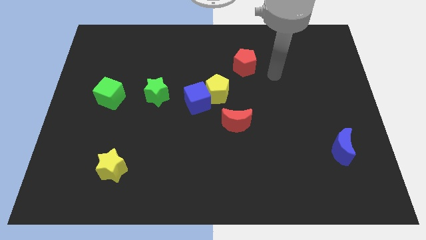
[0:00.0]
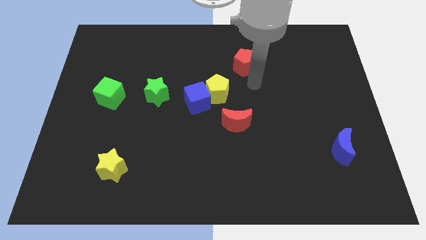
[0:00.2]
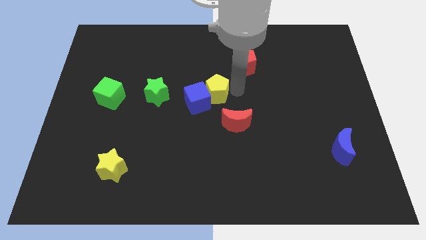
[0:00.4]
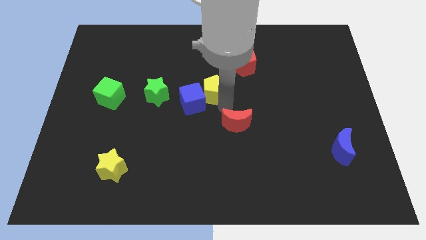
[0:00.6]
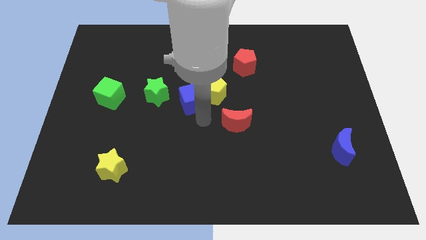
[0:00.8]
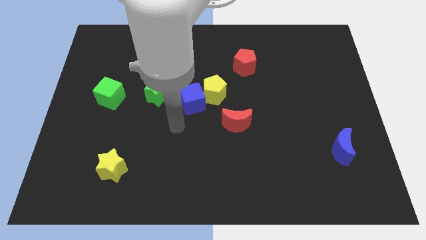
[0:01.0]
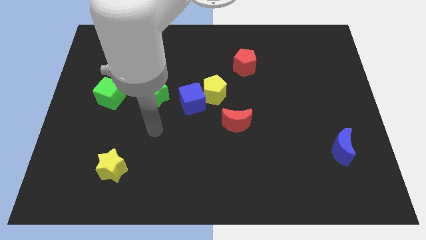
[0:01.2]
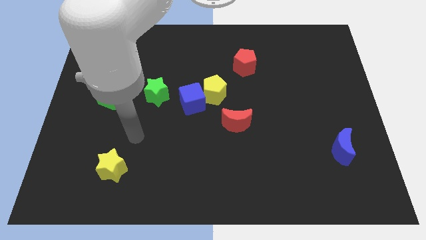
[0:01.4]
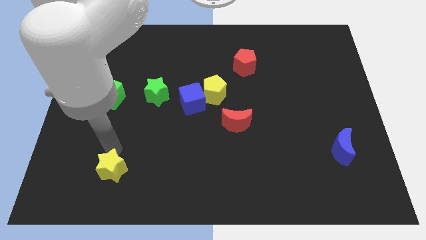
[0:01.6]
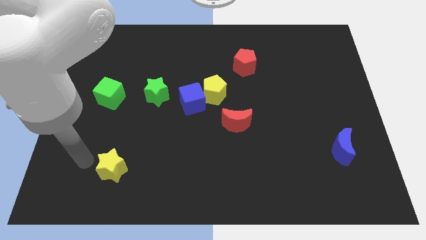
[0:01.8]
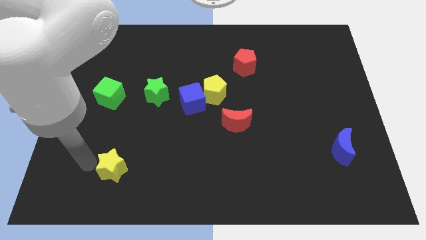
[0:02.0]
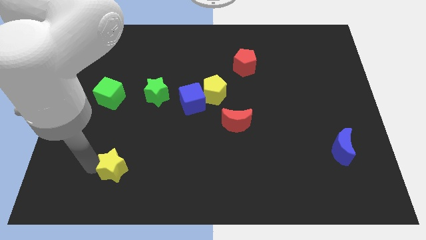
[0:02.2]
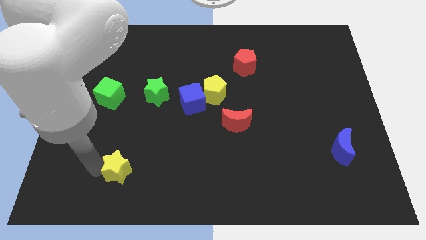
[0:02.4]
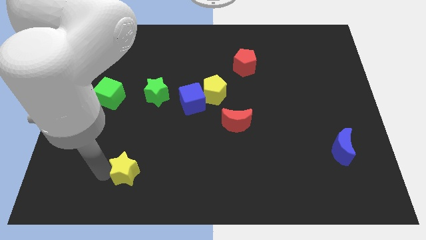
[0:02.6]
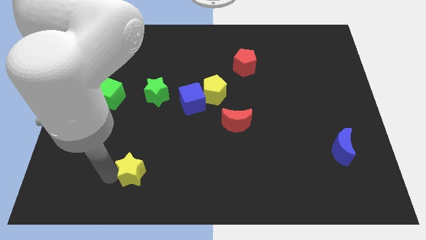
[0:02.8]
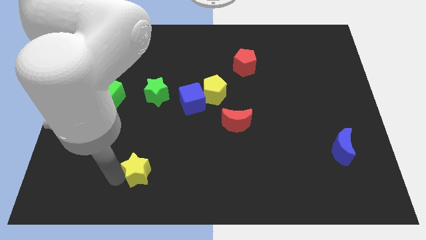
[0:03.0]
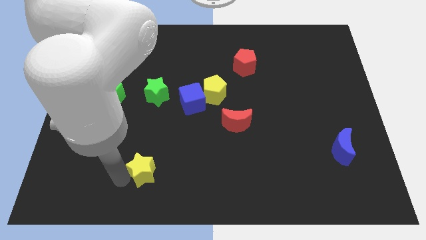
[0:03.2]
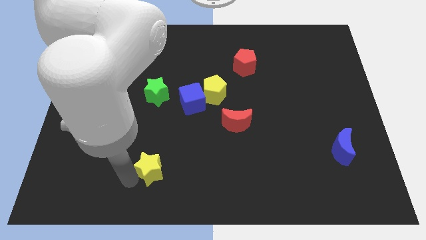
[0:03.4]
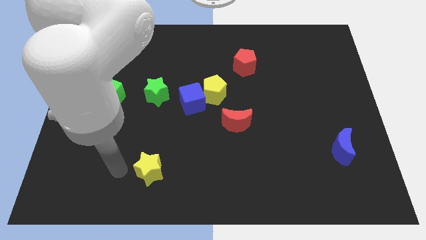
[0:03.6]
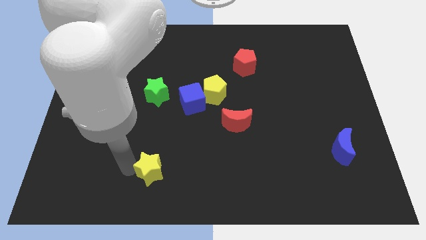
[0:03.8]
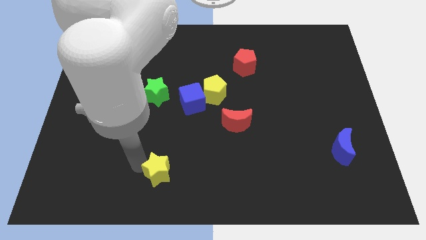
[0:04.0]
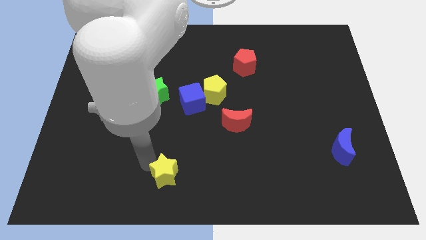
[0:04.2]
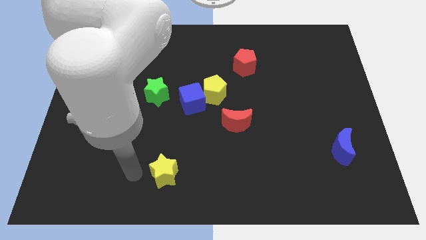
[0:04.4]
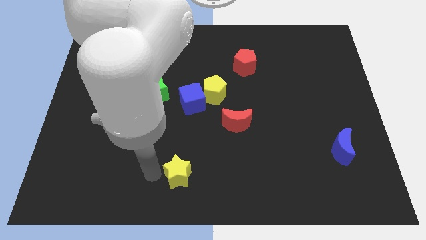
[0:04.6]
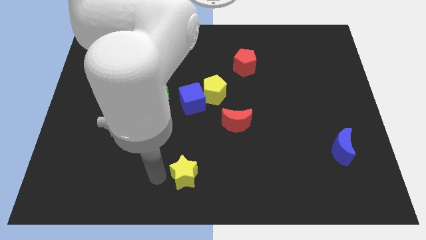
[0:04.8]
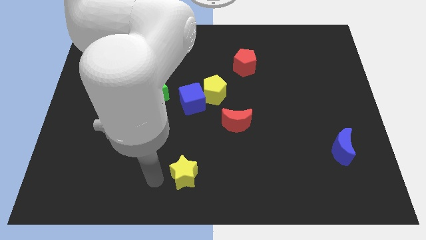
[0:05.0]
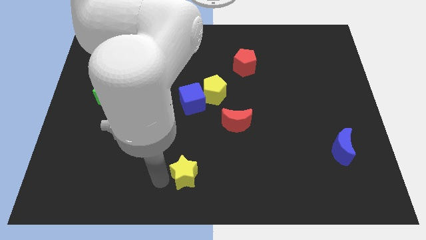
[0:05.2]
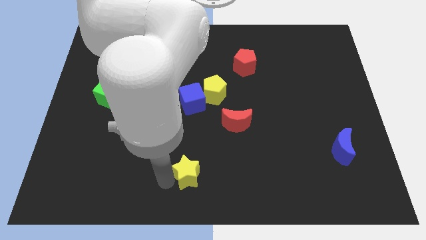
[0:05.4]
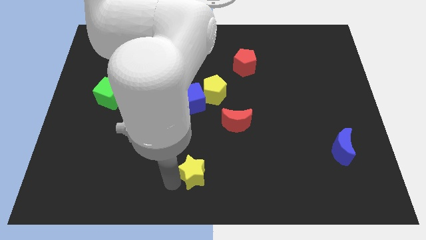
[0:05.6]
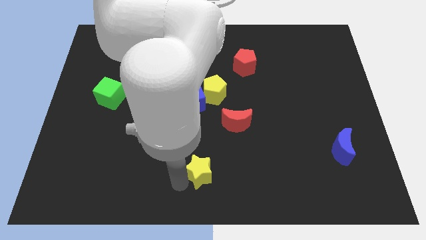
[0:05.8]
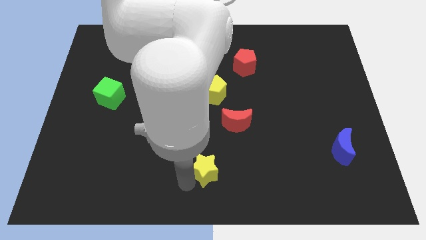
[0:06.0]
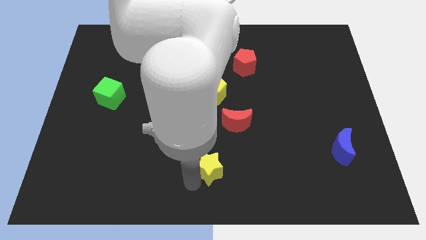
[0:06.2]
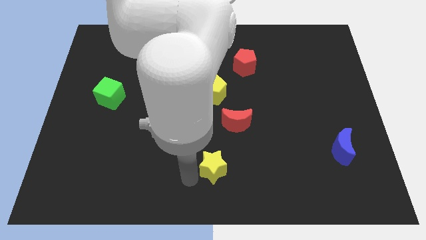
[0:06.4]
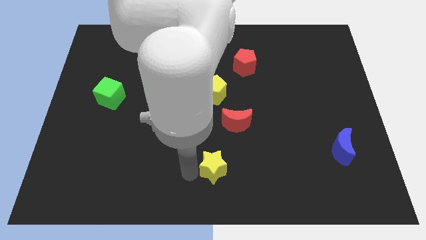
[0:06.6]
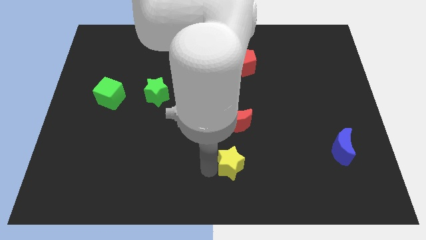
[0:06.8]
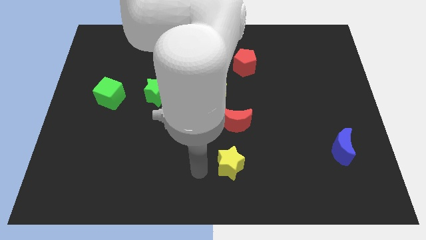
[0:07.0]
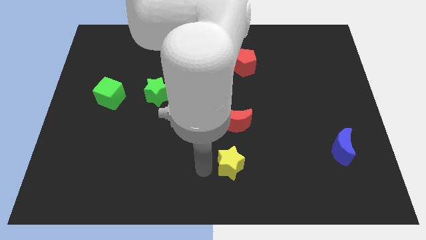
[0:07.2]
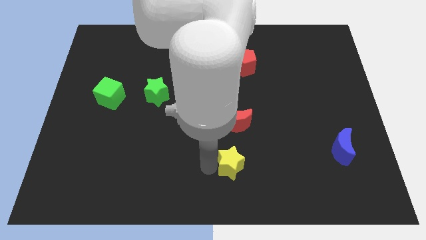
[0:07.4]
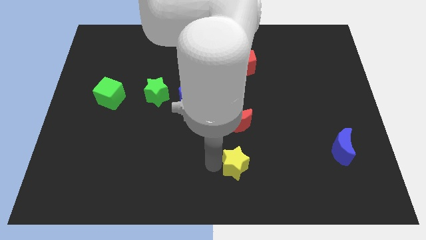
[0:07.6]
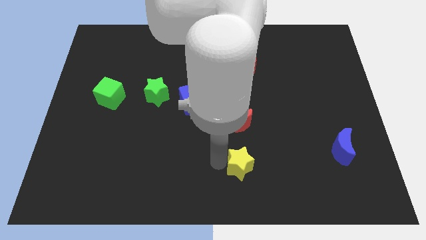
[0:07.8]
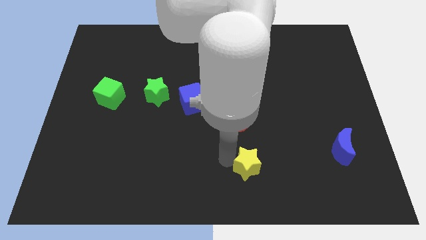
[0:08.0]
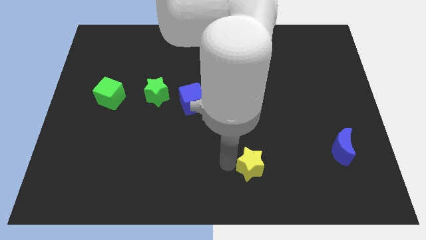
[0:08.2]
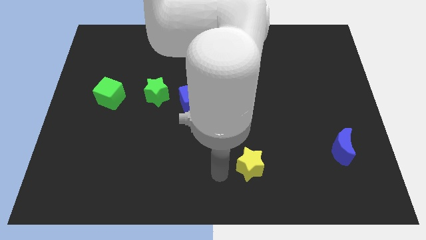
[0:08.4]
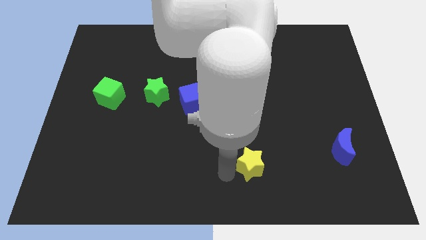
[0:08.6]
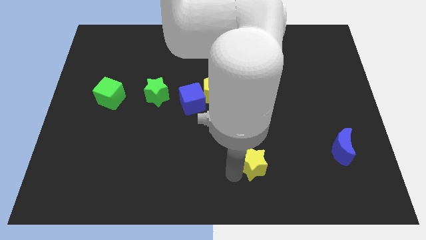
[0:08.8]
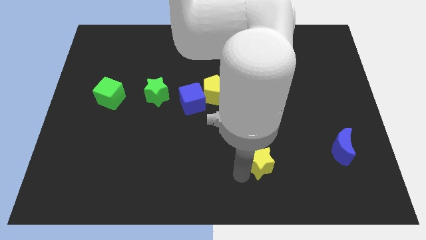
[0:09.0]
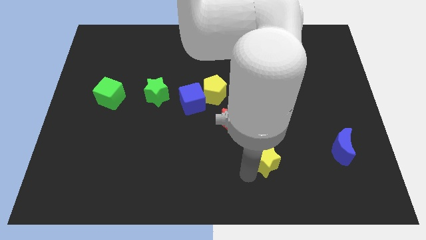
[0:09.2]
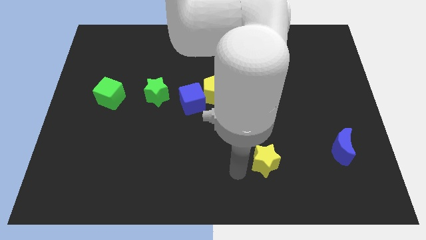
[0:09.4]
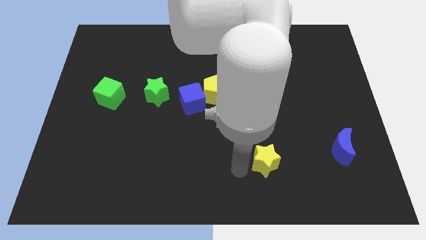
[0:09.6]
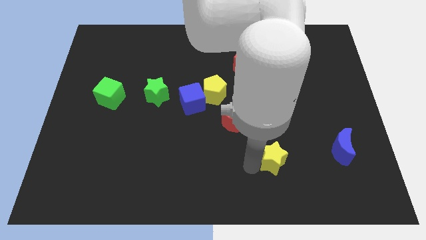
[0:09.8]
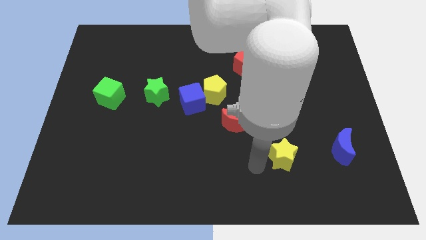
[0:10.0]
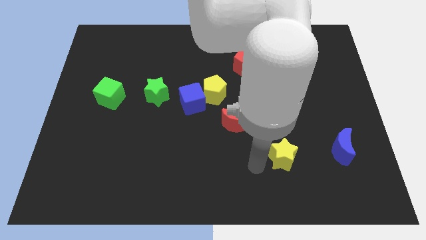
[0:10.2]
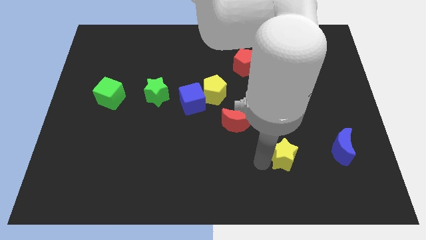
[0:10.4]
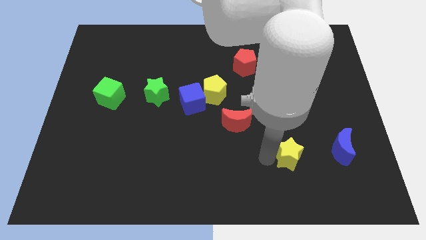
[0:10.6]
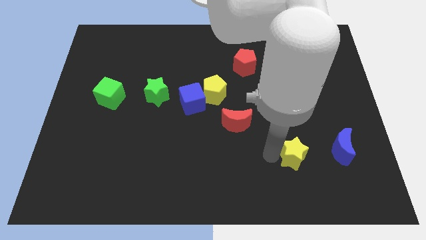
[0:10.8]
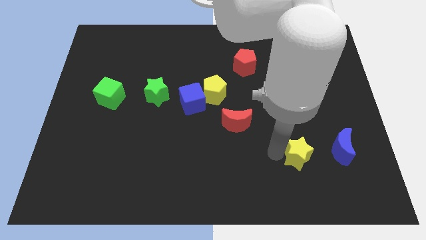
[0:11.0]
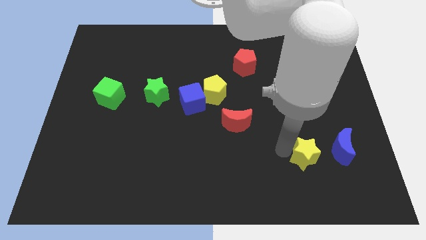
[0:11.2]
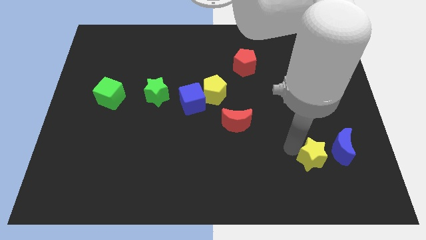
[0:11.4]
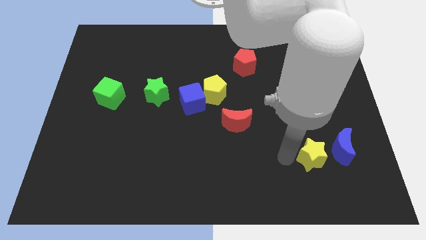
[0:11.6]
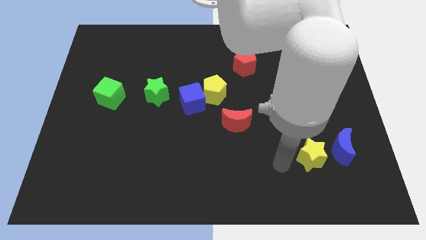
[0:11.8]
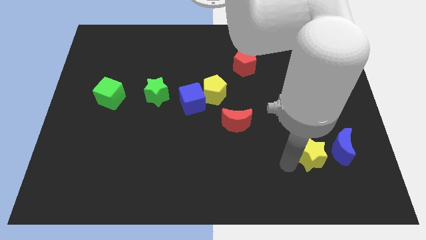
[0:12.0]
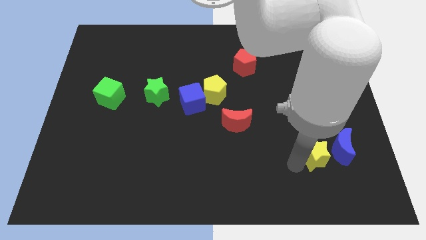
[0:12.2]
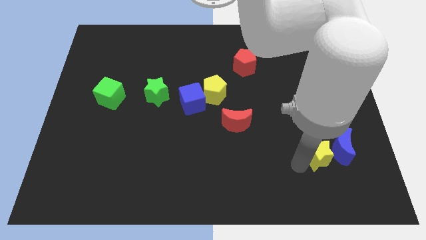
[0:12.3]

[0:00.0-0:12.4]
move the yellow star next to the blue moon

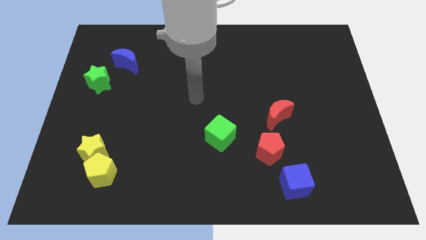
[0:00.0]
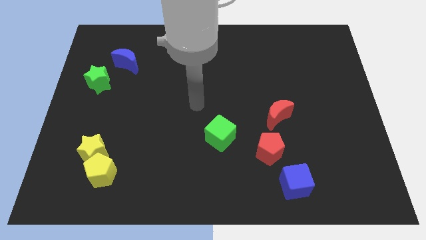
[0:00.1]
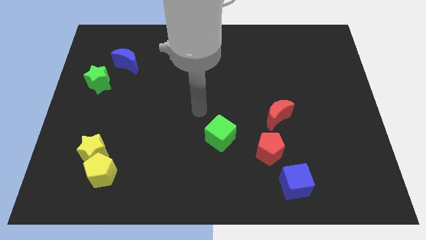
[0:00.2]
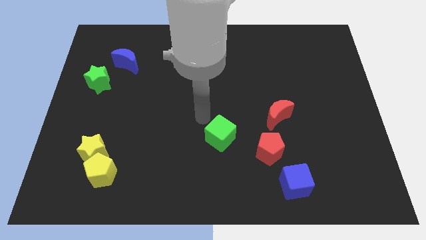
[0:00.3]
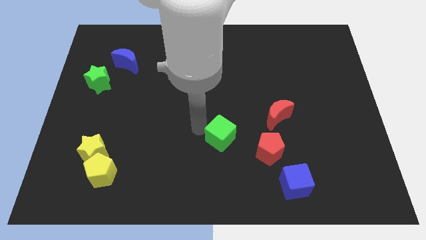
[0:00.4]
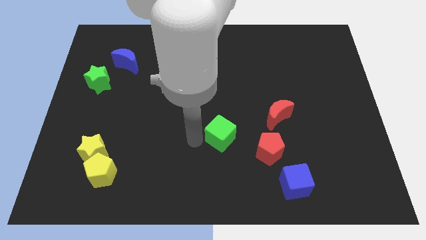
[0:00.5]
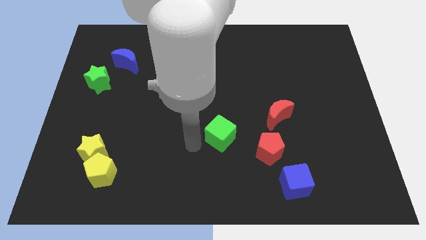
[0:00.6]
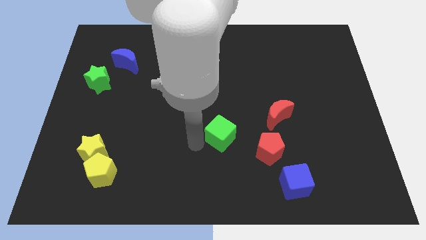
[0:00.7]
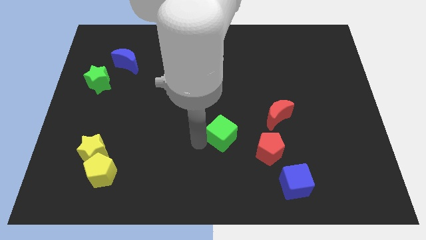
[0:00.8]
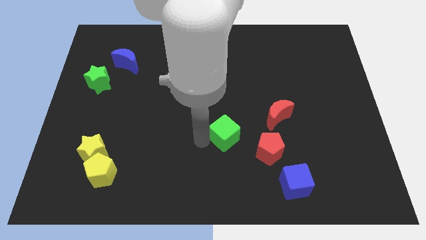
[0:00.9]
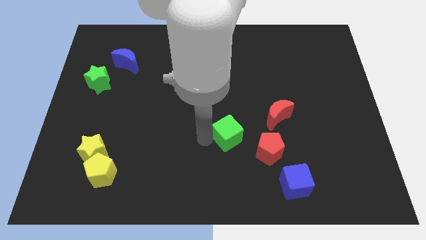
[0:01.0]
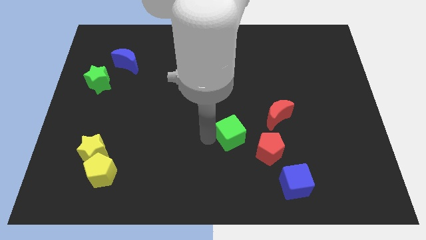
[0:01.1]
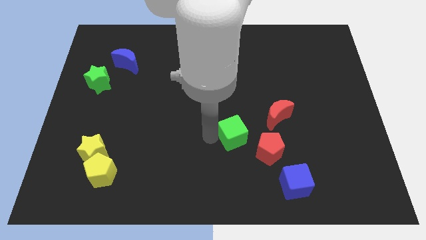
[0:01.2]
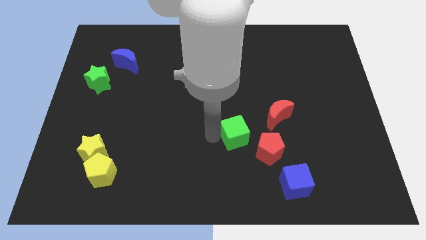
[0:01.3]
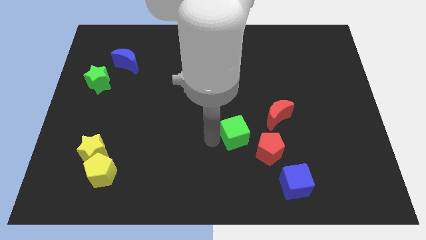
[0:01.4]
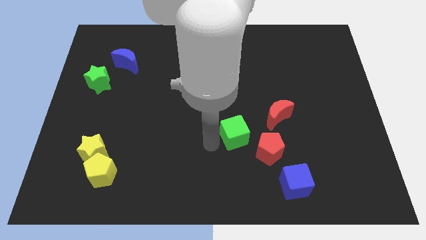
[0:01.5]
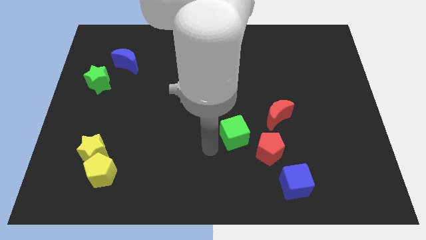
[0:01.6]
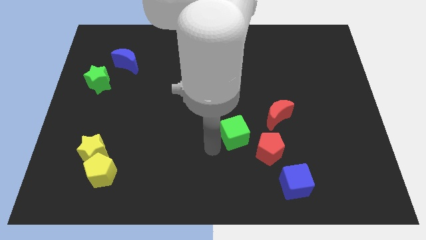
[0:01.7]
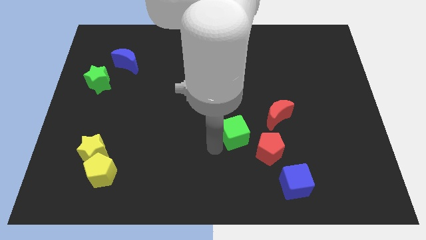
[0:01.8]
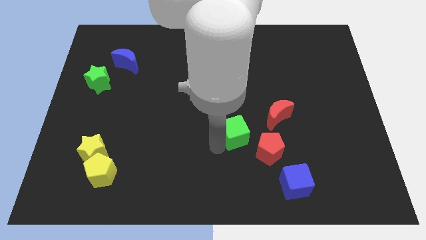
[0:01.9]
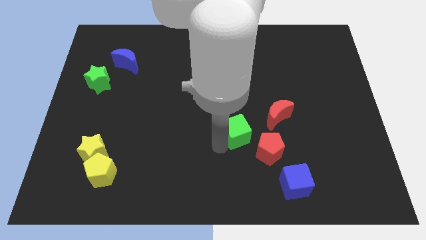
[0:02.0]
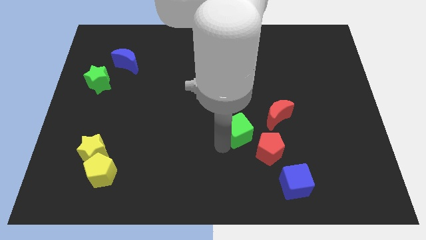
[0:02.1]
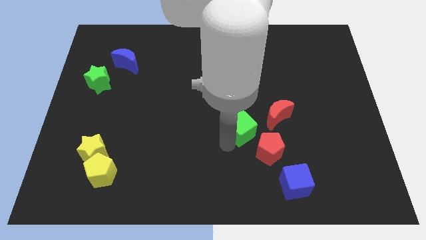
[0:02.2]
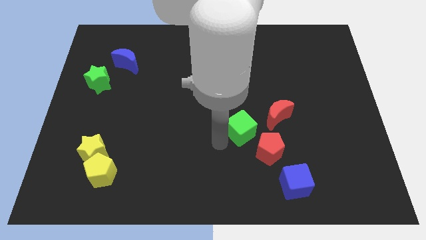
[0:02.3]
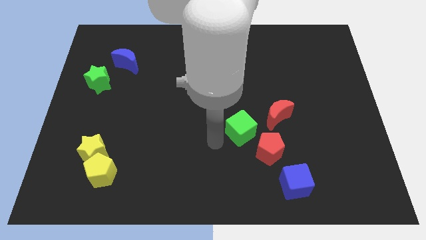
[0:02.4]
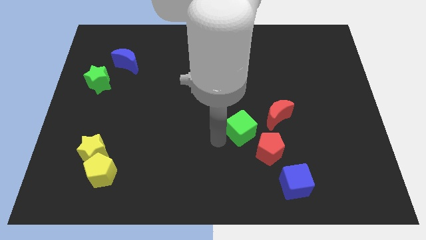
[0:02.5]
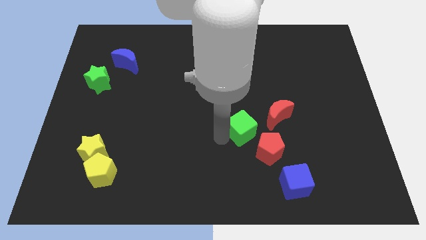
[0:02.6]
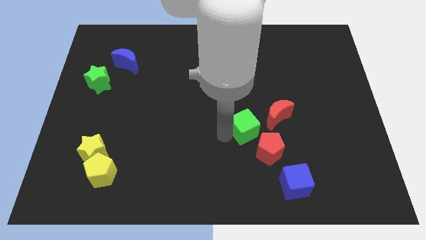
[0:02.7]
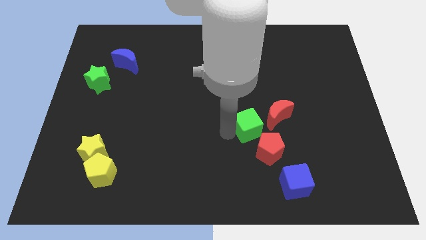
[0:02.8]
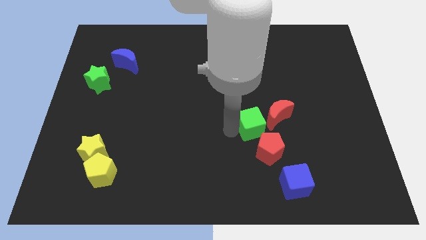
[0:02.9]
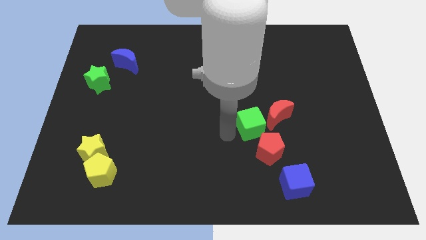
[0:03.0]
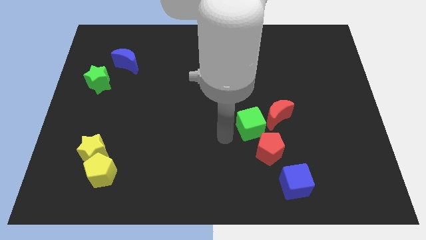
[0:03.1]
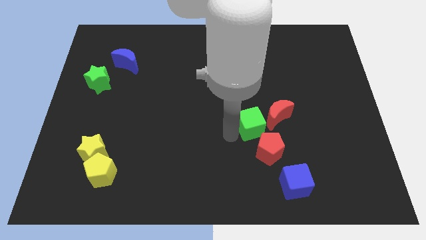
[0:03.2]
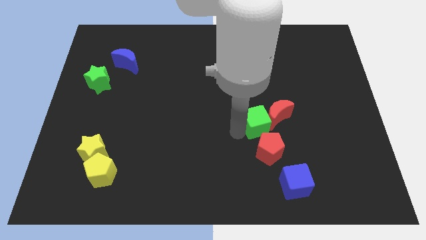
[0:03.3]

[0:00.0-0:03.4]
put the green cube to the red moon
